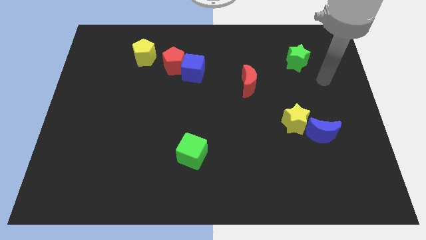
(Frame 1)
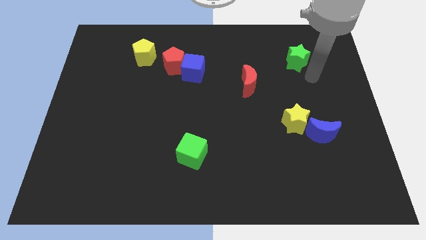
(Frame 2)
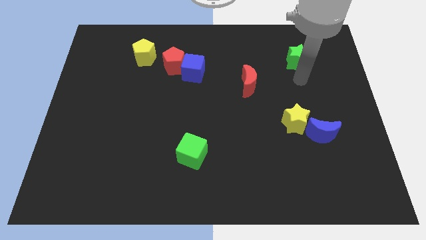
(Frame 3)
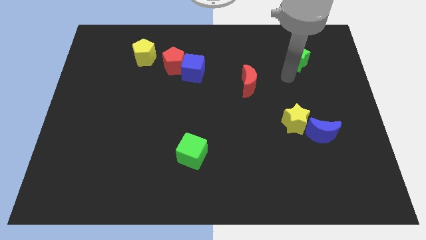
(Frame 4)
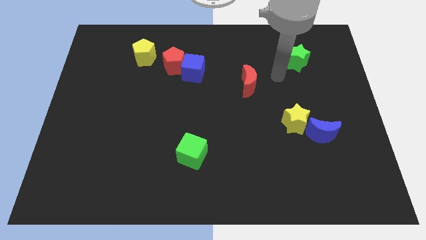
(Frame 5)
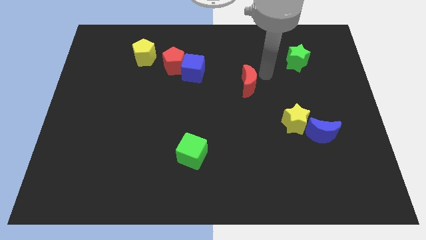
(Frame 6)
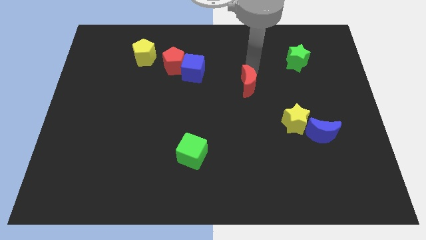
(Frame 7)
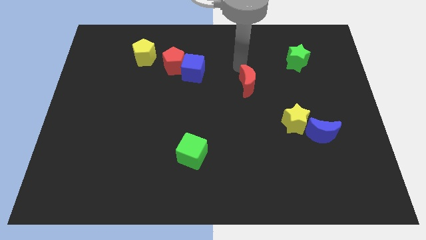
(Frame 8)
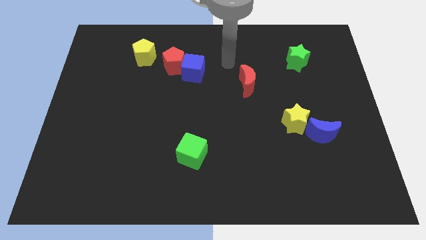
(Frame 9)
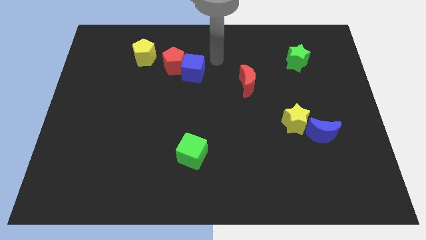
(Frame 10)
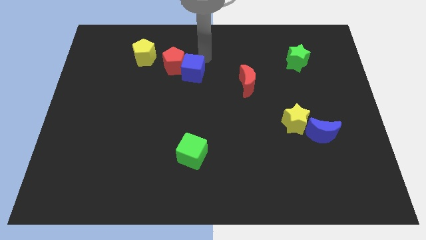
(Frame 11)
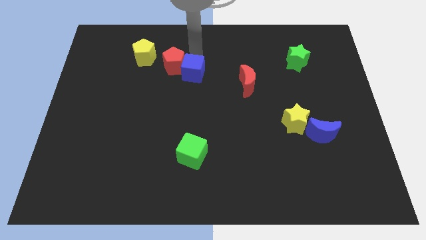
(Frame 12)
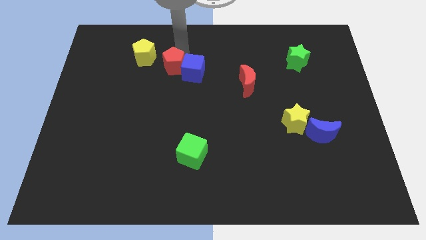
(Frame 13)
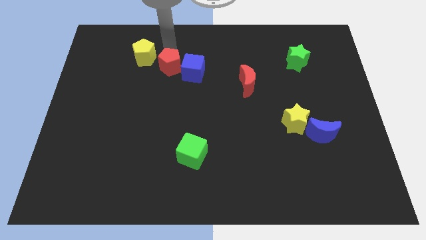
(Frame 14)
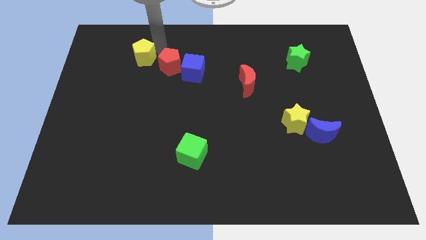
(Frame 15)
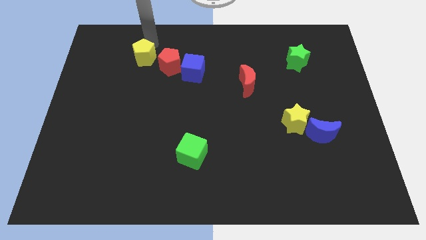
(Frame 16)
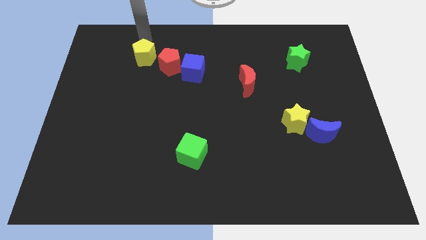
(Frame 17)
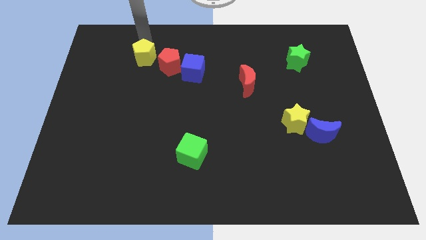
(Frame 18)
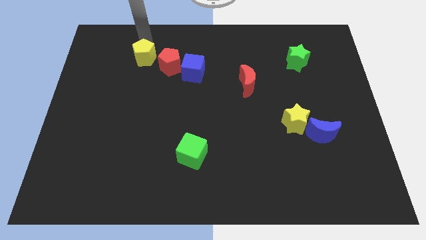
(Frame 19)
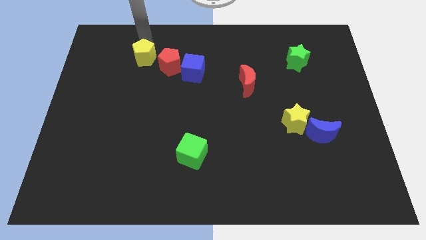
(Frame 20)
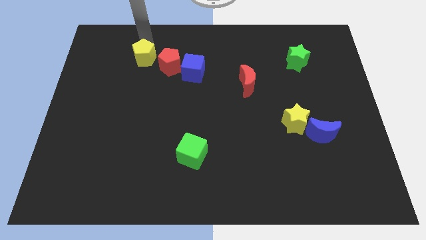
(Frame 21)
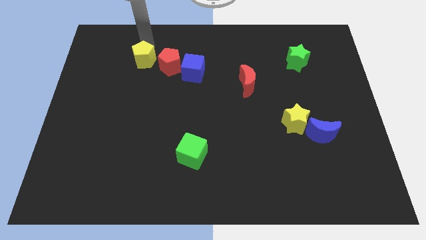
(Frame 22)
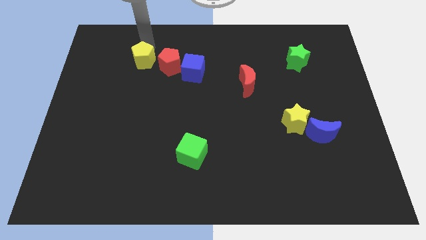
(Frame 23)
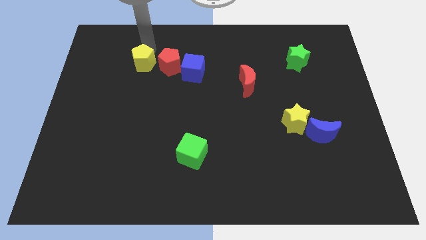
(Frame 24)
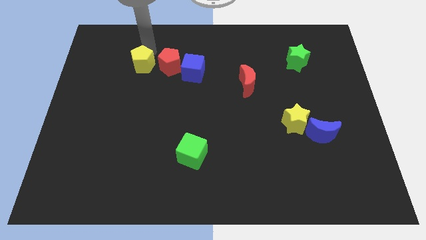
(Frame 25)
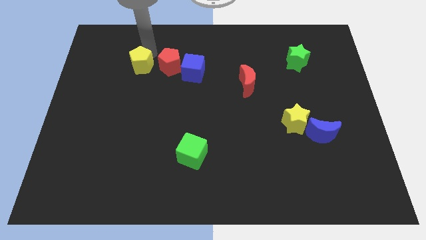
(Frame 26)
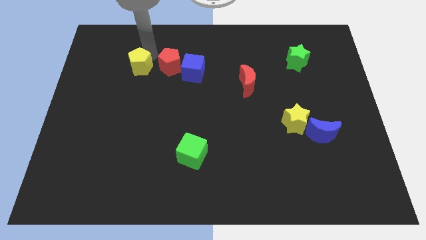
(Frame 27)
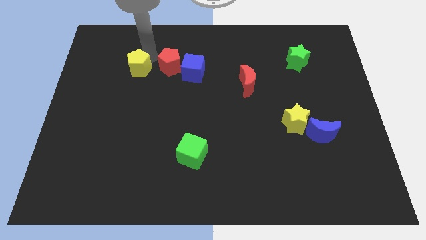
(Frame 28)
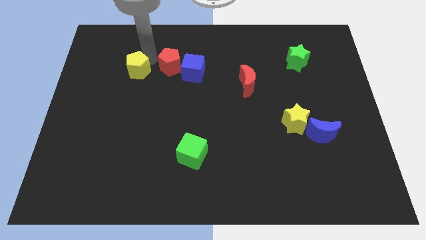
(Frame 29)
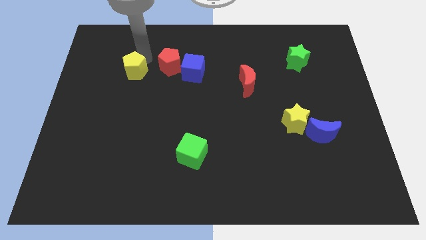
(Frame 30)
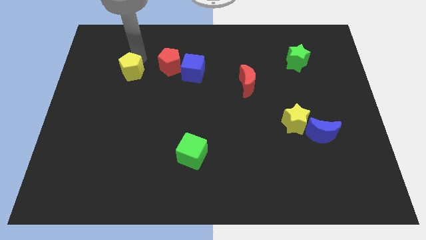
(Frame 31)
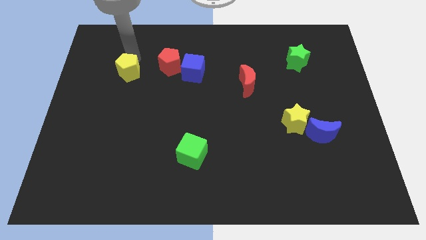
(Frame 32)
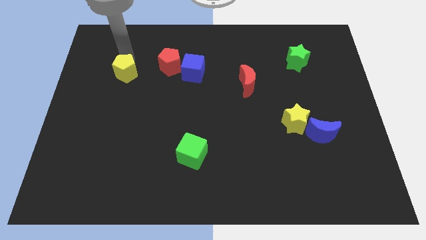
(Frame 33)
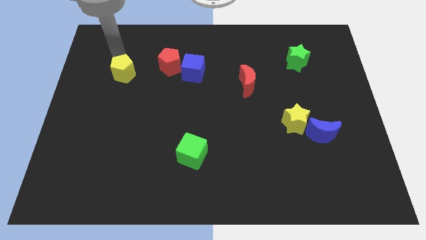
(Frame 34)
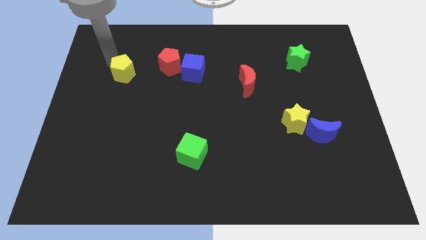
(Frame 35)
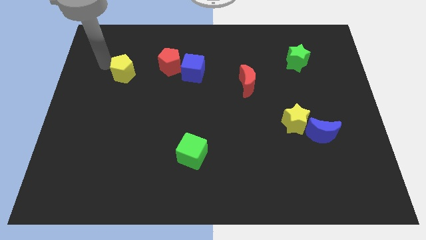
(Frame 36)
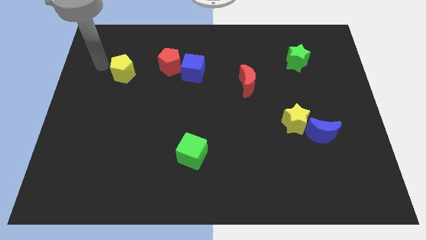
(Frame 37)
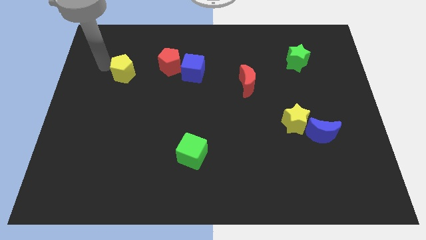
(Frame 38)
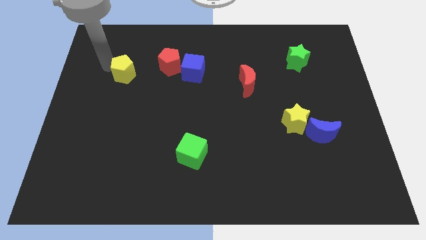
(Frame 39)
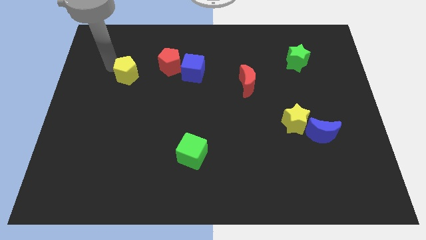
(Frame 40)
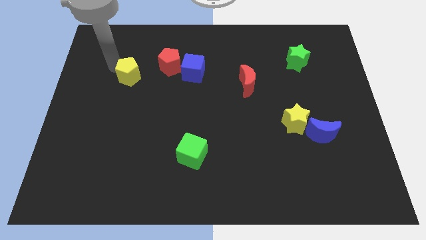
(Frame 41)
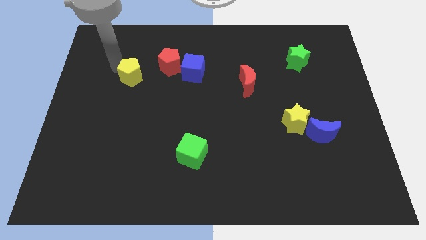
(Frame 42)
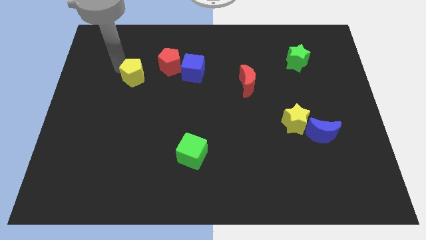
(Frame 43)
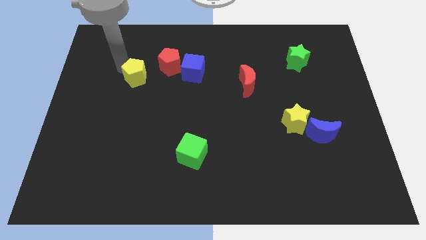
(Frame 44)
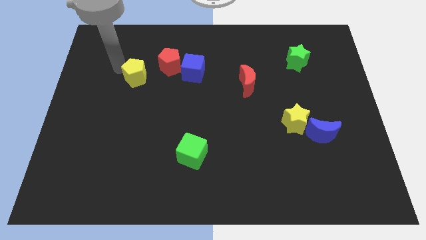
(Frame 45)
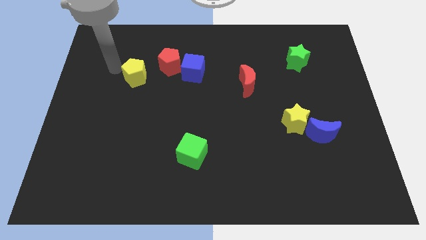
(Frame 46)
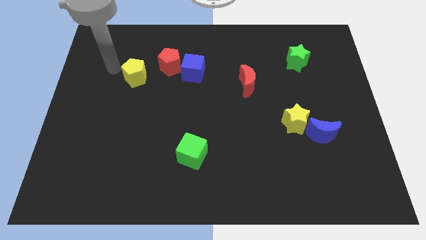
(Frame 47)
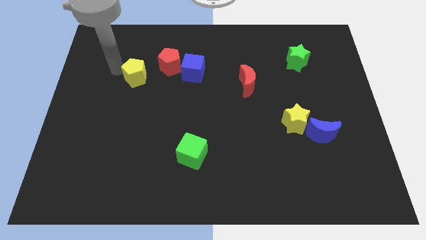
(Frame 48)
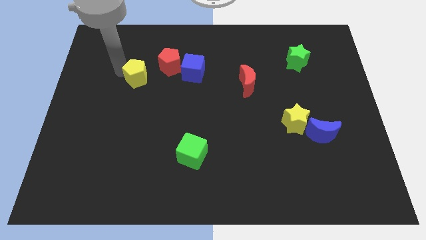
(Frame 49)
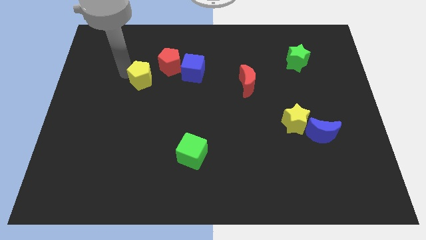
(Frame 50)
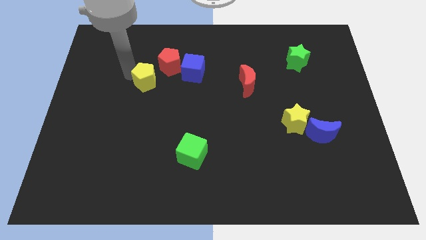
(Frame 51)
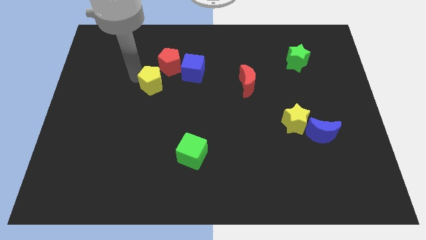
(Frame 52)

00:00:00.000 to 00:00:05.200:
move the yellow pentagon to the bottom left side of the blue cube

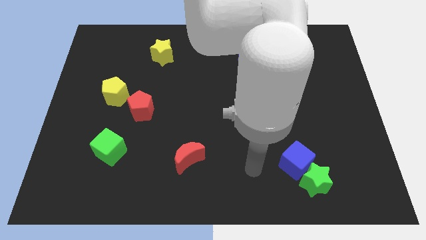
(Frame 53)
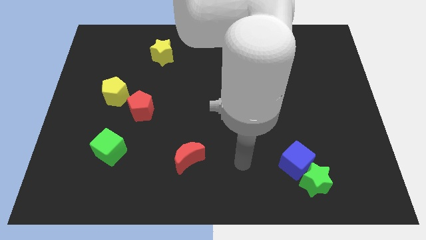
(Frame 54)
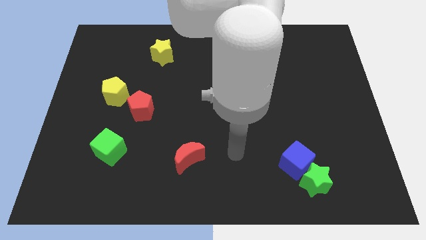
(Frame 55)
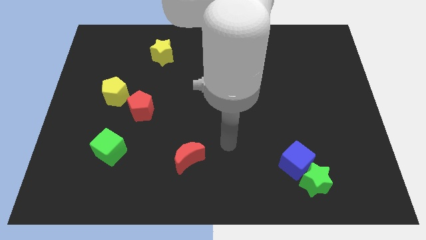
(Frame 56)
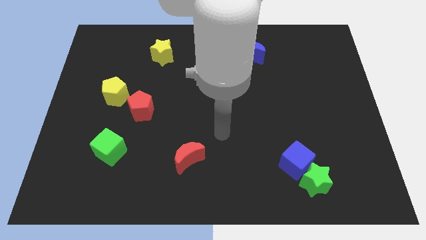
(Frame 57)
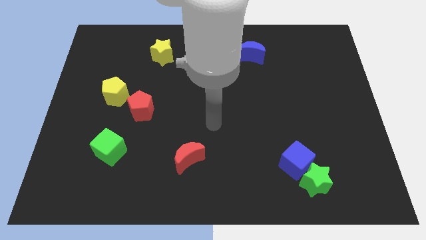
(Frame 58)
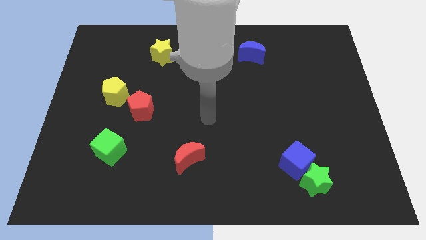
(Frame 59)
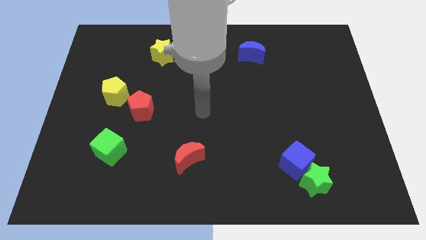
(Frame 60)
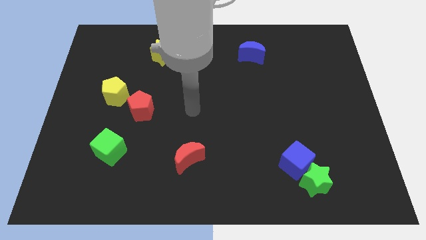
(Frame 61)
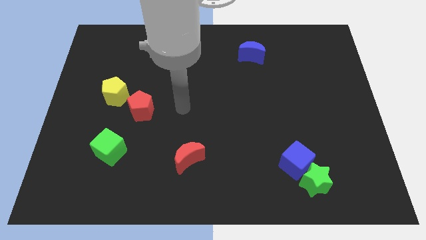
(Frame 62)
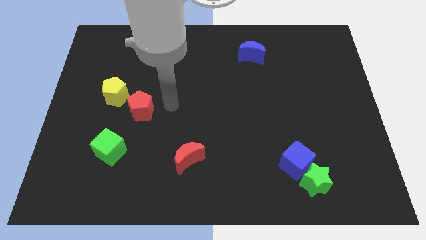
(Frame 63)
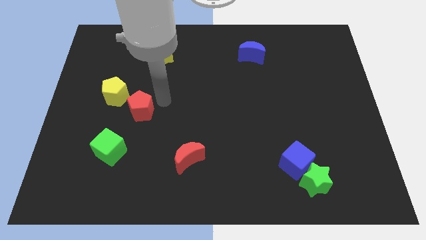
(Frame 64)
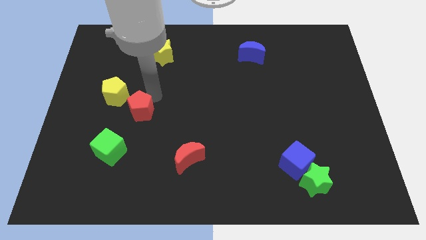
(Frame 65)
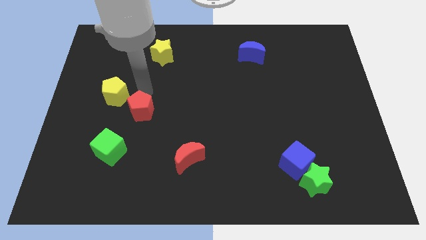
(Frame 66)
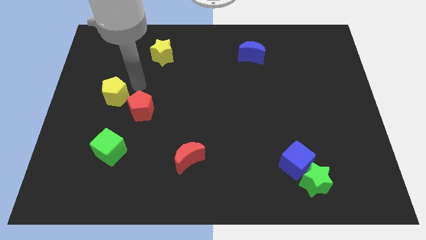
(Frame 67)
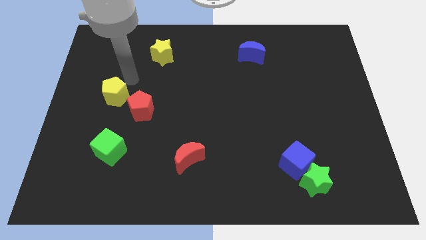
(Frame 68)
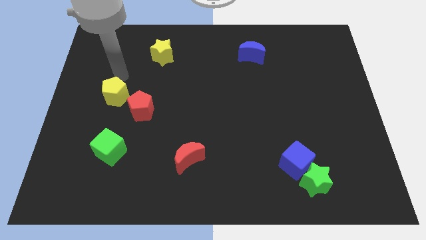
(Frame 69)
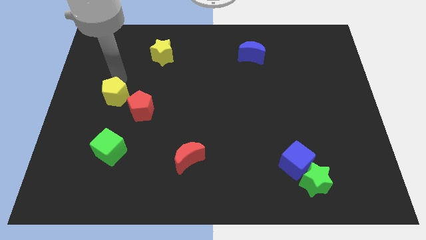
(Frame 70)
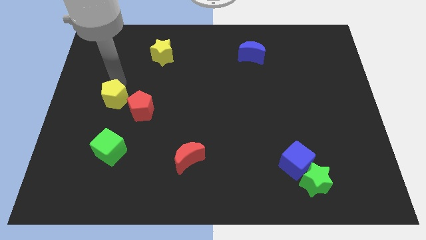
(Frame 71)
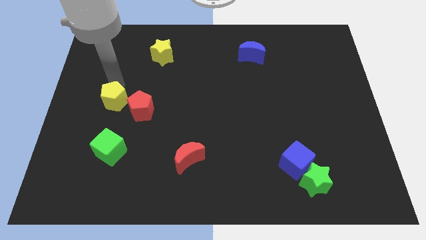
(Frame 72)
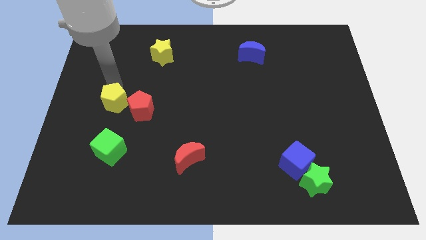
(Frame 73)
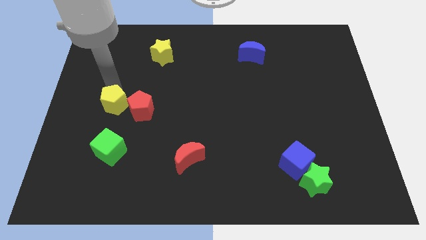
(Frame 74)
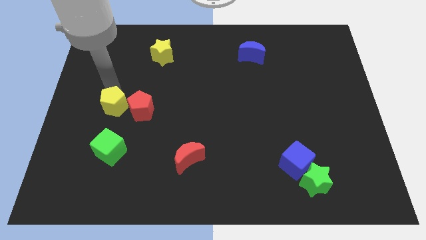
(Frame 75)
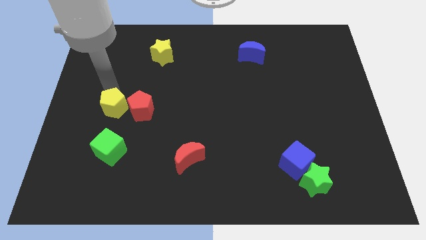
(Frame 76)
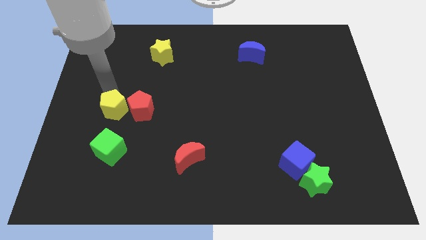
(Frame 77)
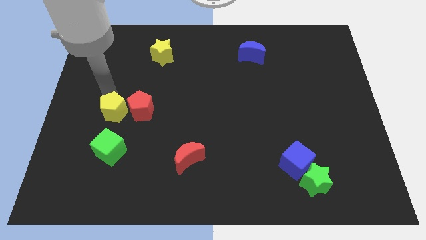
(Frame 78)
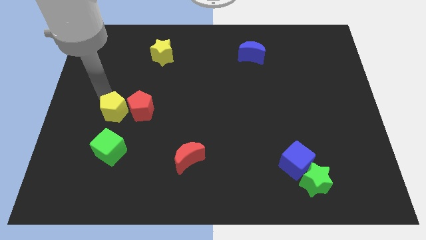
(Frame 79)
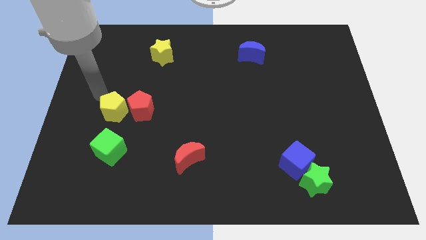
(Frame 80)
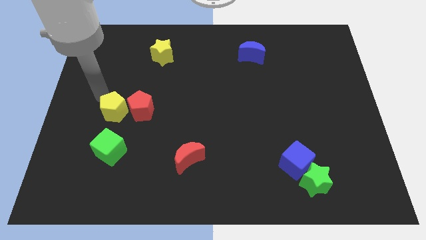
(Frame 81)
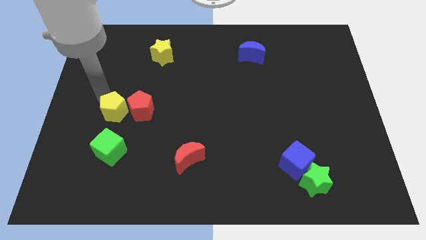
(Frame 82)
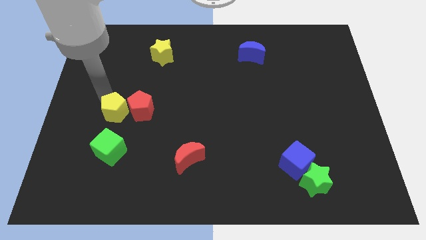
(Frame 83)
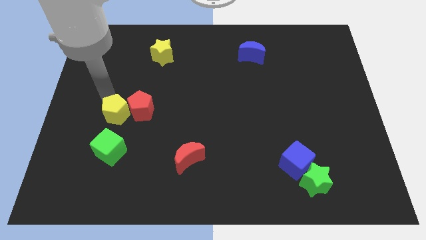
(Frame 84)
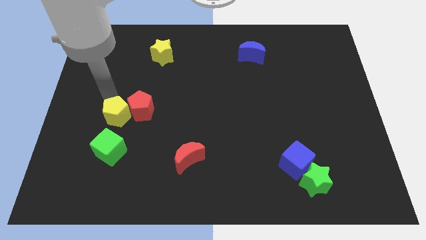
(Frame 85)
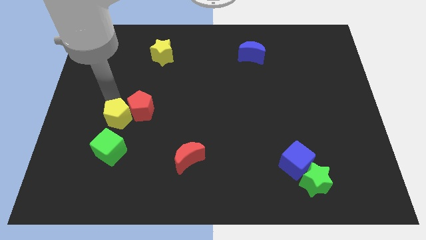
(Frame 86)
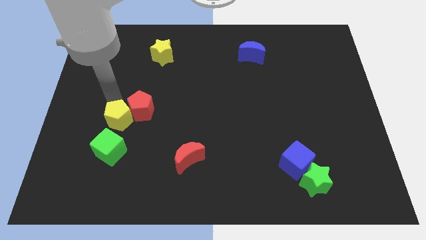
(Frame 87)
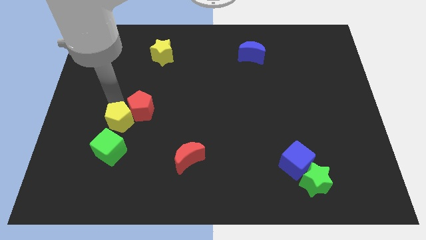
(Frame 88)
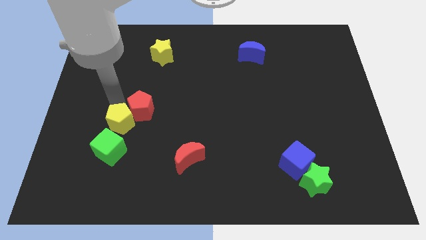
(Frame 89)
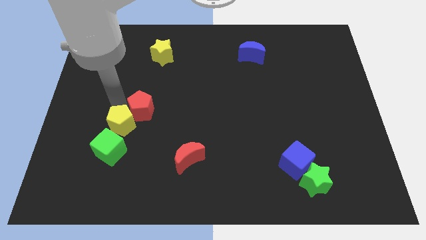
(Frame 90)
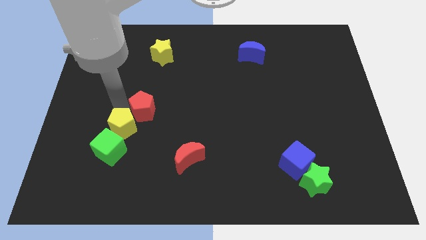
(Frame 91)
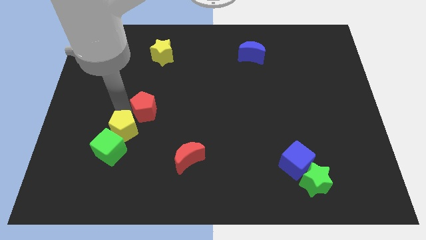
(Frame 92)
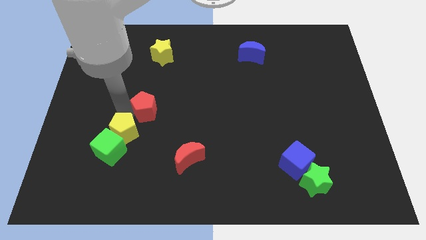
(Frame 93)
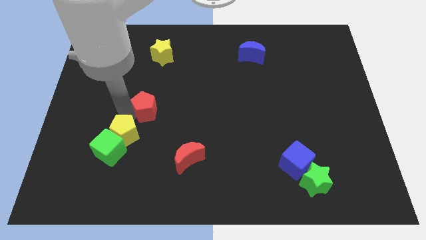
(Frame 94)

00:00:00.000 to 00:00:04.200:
move the yellow pentagon just right of the green cube
